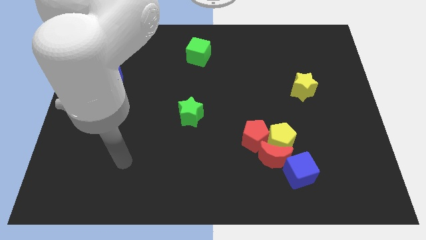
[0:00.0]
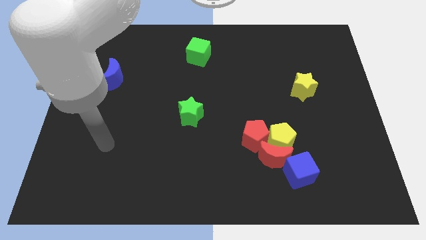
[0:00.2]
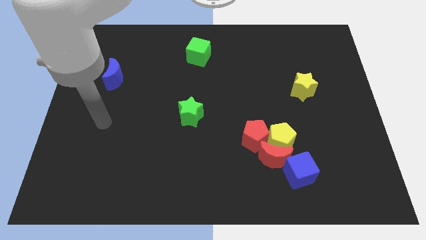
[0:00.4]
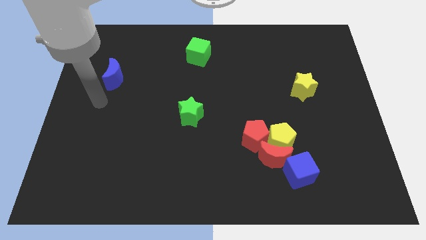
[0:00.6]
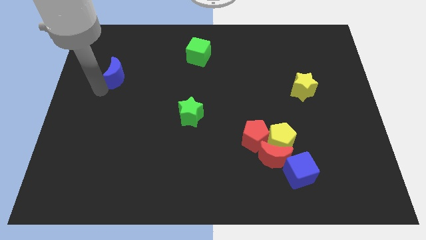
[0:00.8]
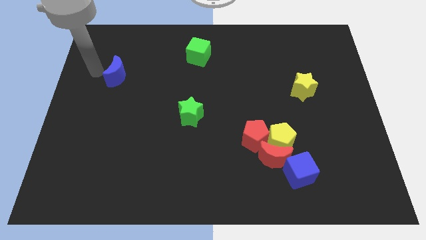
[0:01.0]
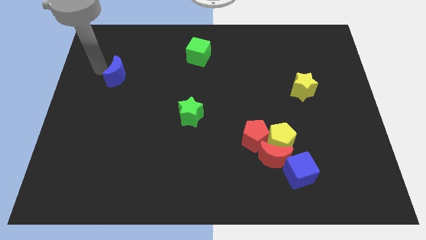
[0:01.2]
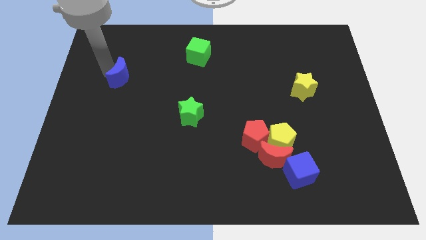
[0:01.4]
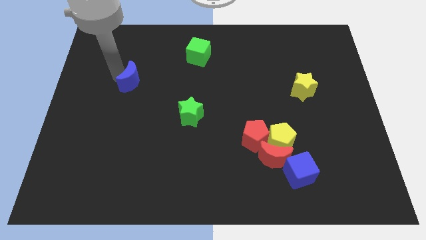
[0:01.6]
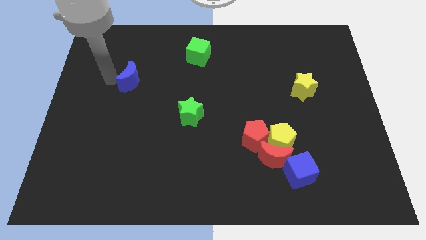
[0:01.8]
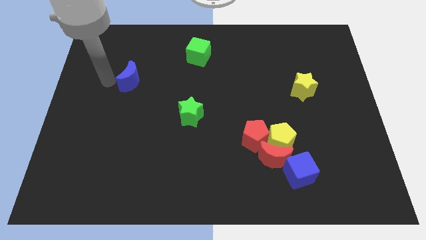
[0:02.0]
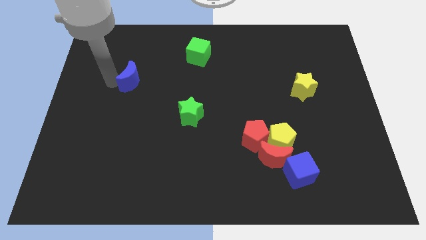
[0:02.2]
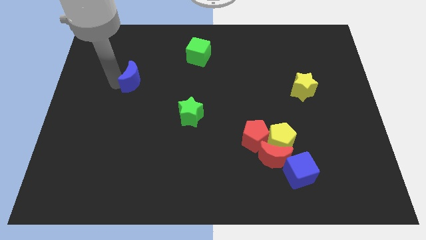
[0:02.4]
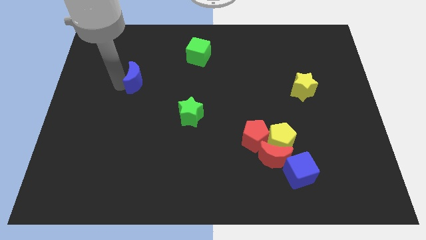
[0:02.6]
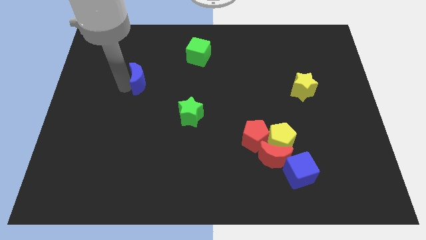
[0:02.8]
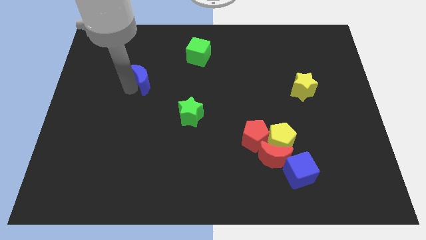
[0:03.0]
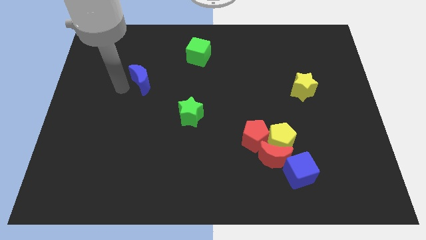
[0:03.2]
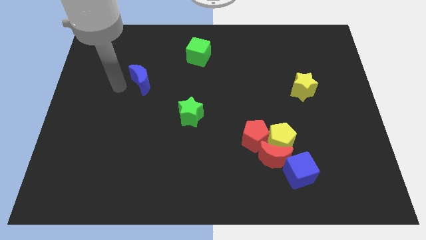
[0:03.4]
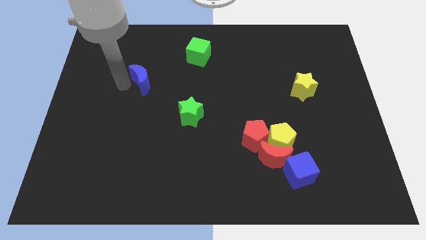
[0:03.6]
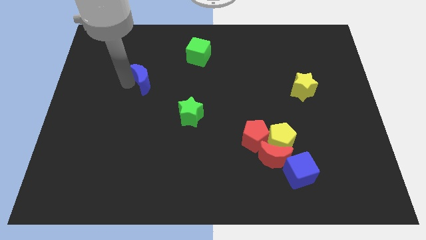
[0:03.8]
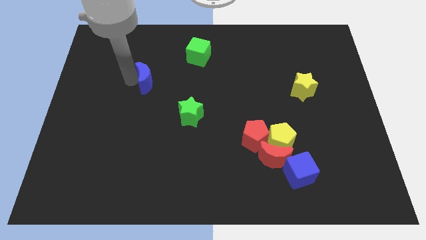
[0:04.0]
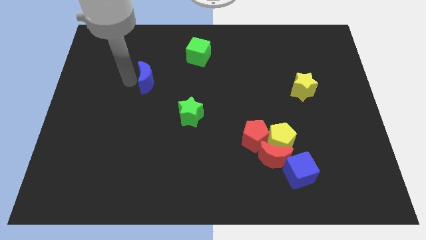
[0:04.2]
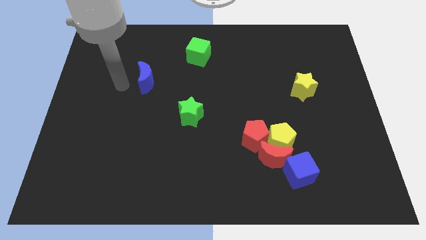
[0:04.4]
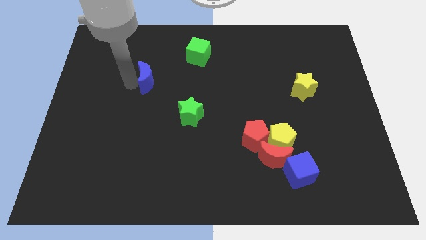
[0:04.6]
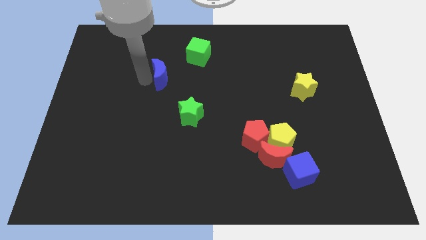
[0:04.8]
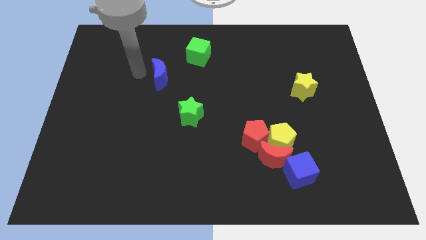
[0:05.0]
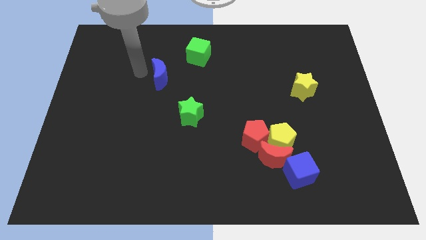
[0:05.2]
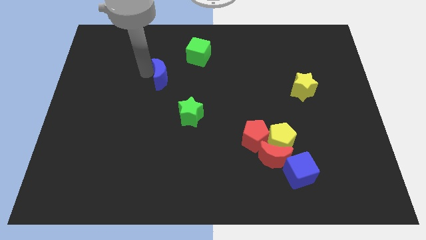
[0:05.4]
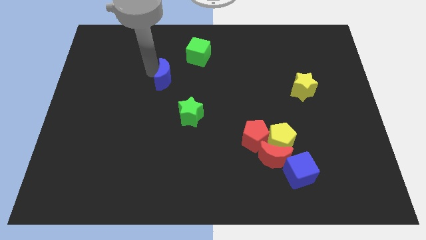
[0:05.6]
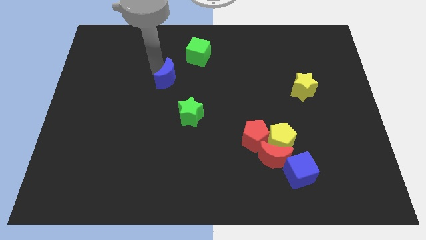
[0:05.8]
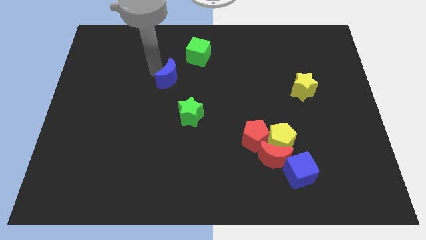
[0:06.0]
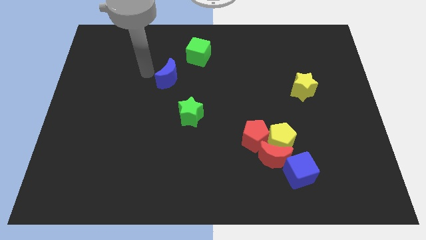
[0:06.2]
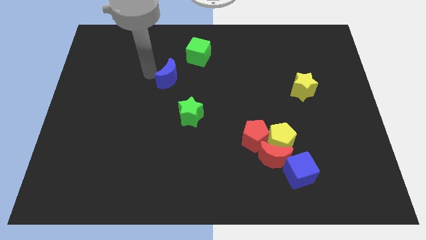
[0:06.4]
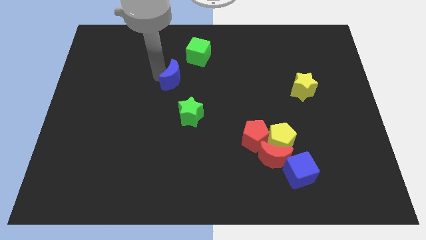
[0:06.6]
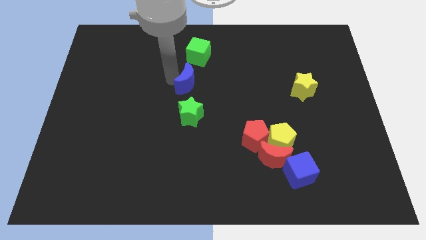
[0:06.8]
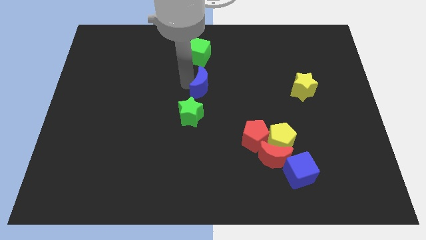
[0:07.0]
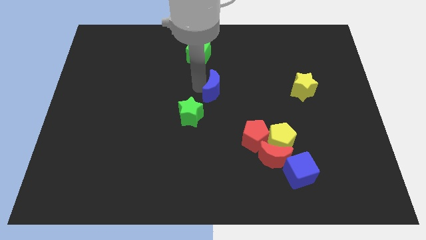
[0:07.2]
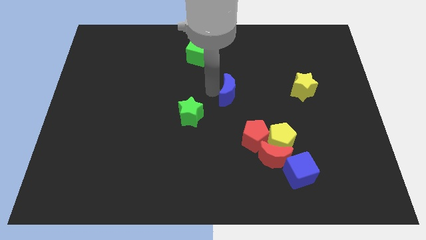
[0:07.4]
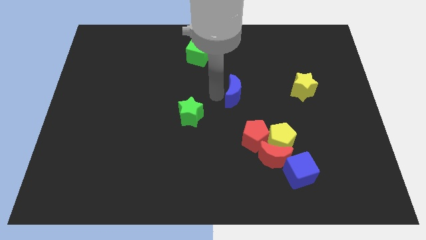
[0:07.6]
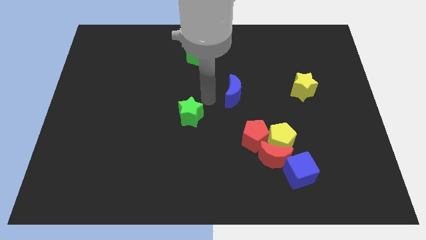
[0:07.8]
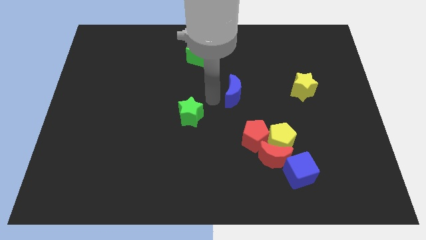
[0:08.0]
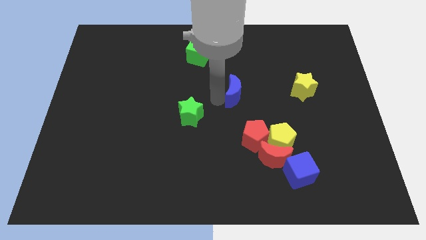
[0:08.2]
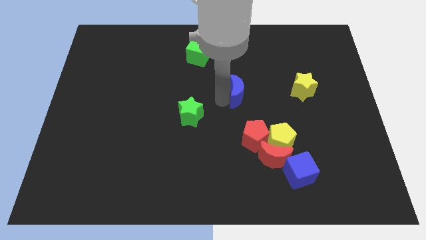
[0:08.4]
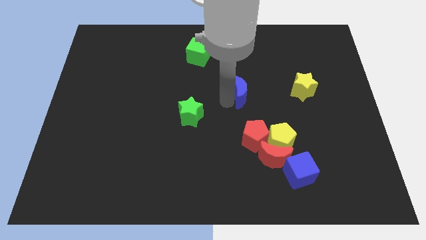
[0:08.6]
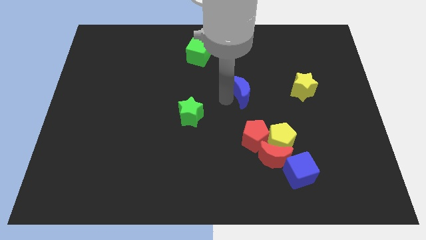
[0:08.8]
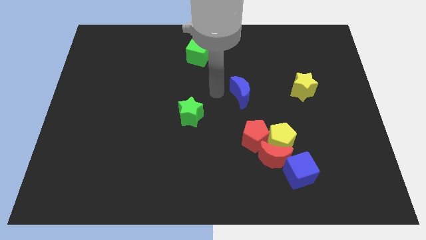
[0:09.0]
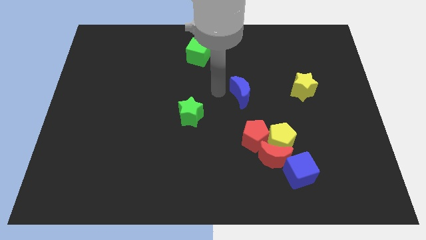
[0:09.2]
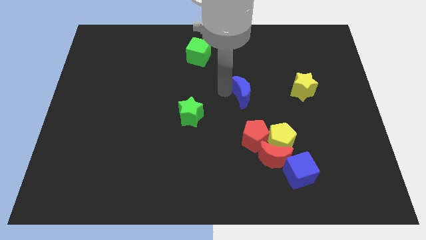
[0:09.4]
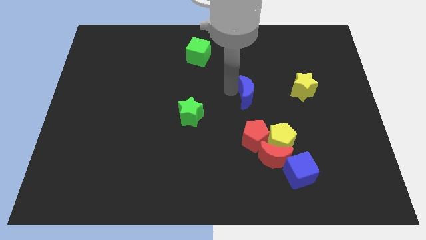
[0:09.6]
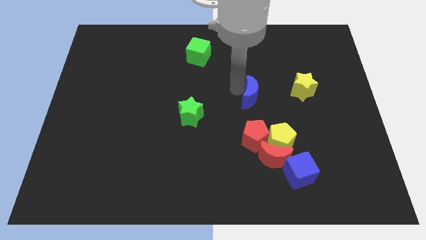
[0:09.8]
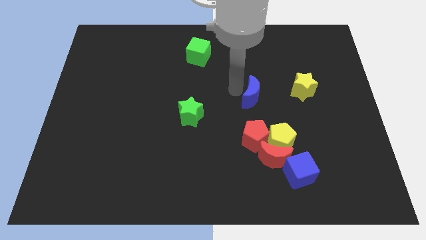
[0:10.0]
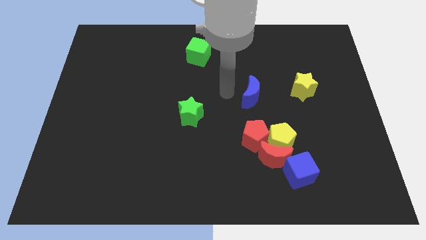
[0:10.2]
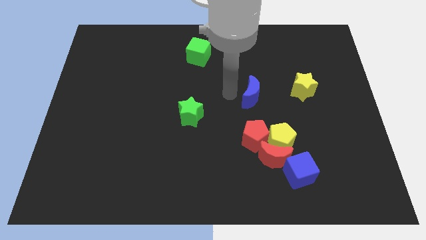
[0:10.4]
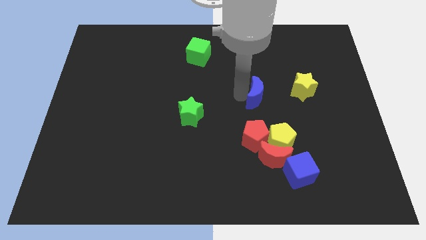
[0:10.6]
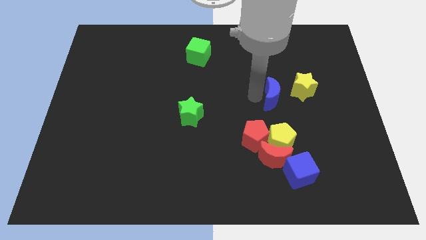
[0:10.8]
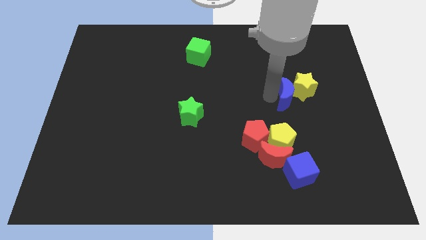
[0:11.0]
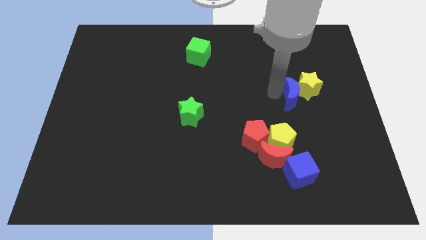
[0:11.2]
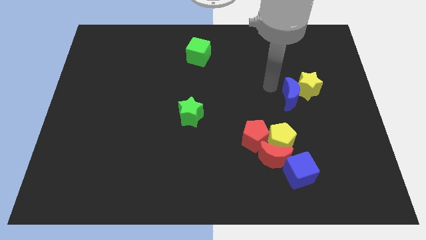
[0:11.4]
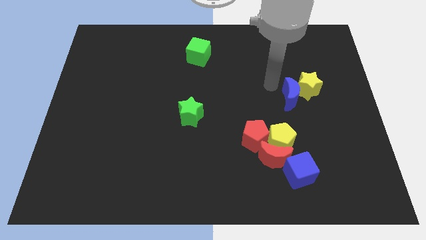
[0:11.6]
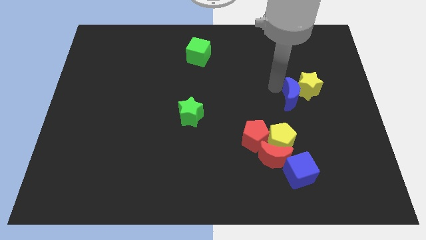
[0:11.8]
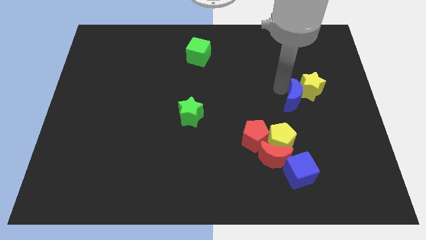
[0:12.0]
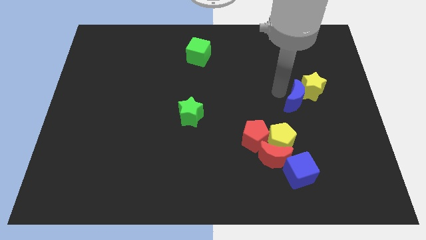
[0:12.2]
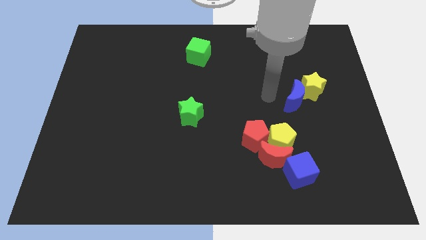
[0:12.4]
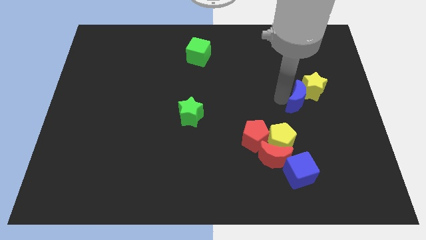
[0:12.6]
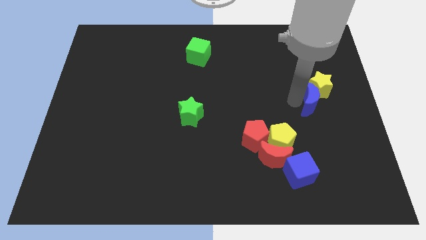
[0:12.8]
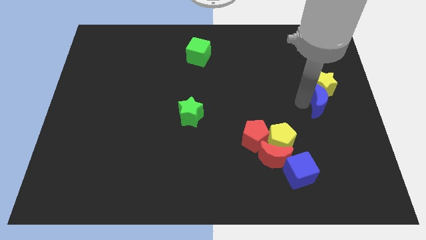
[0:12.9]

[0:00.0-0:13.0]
put the blue moon to the center right

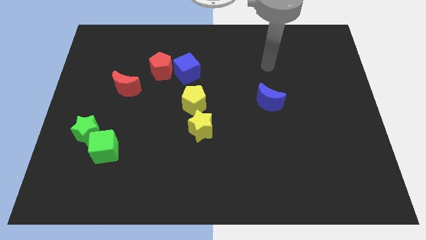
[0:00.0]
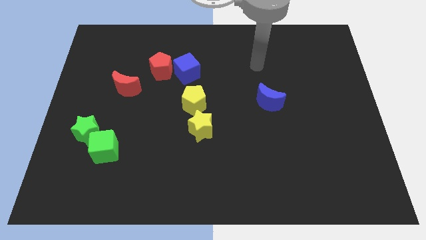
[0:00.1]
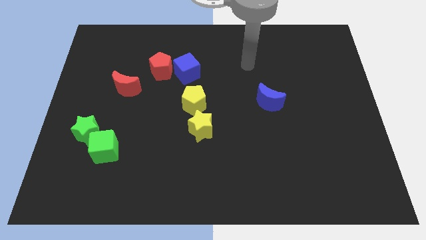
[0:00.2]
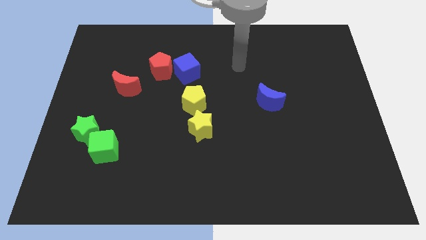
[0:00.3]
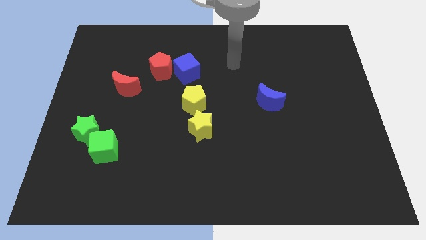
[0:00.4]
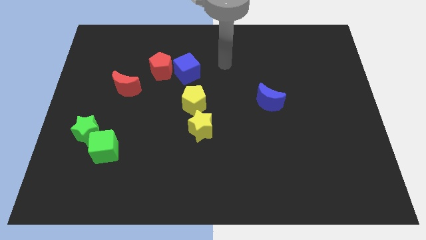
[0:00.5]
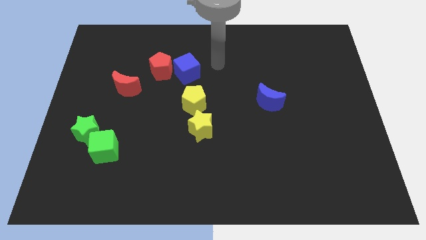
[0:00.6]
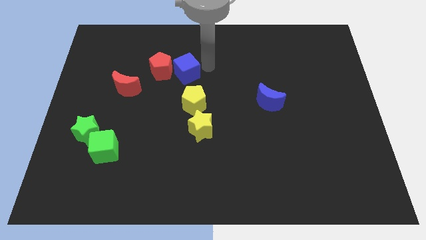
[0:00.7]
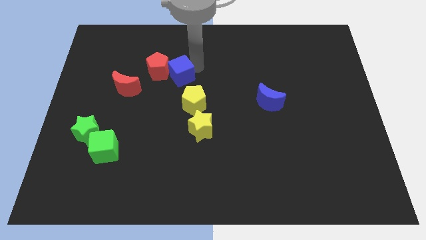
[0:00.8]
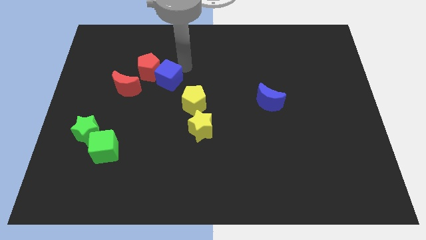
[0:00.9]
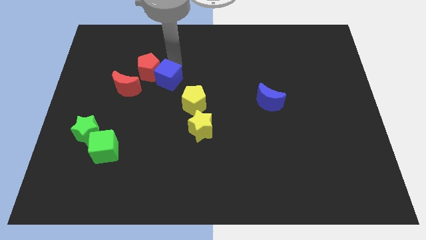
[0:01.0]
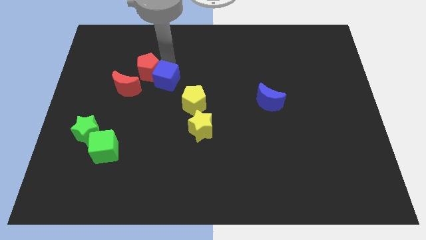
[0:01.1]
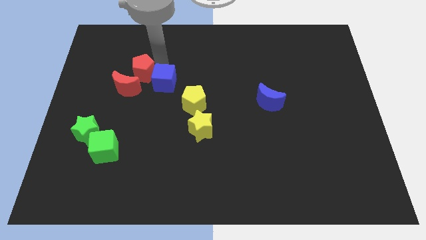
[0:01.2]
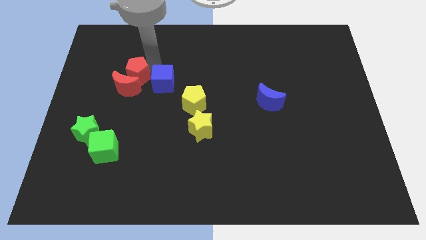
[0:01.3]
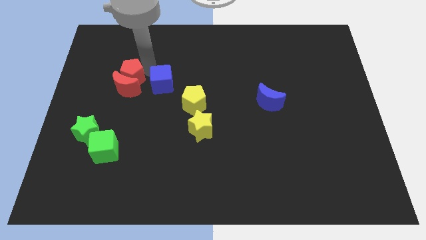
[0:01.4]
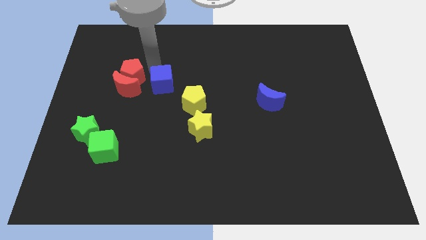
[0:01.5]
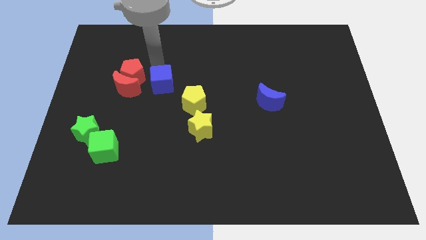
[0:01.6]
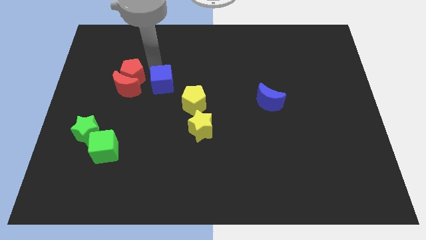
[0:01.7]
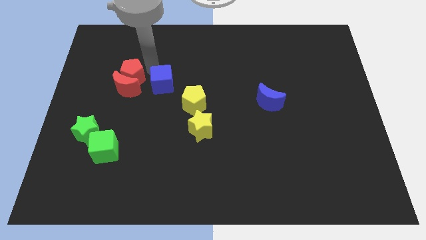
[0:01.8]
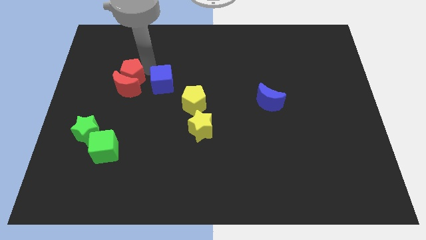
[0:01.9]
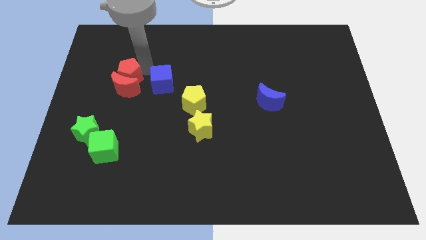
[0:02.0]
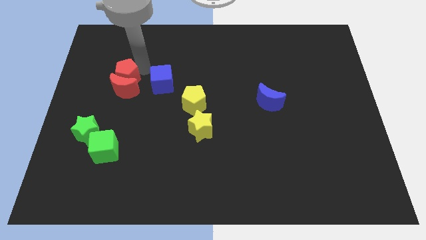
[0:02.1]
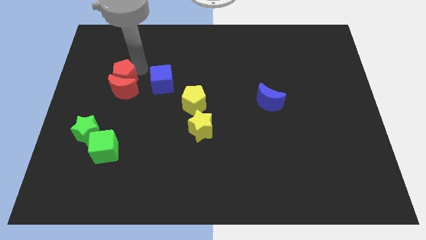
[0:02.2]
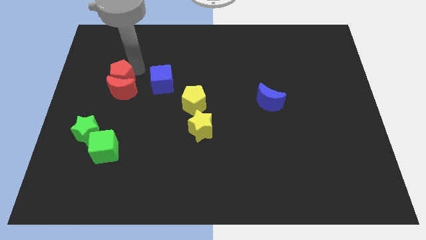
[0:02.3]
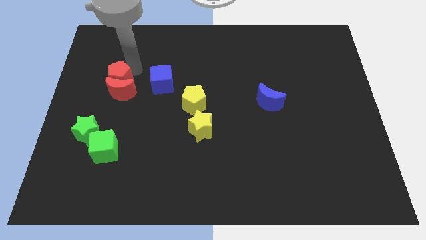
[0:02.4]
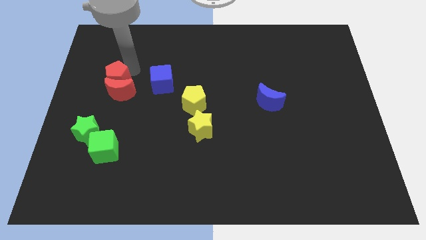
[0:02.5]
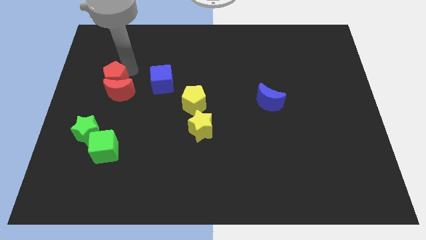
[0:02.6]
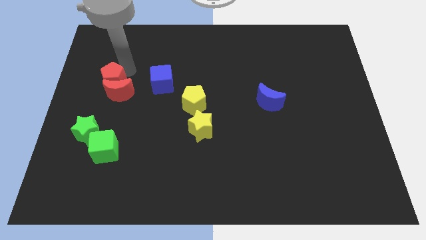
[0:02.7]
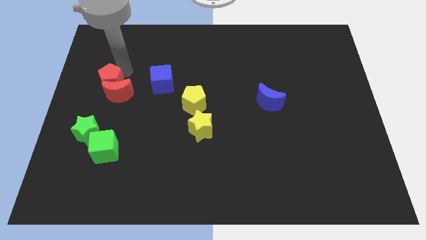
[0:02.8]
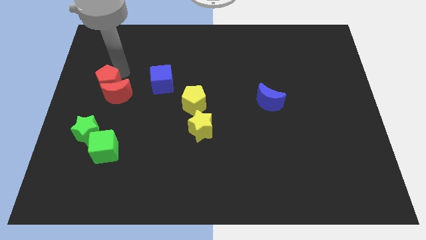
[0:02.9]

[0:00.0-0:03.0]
slide the red pentagon to the center left
